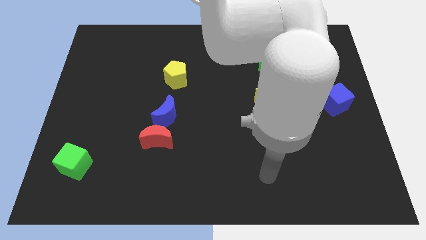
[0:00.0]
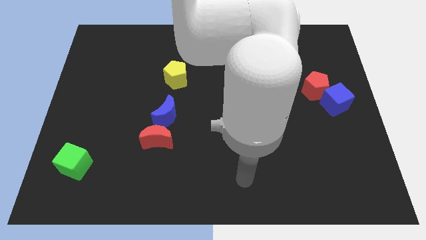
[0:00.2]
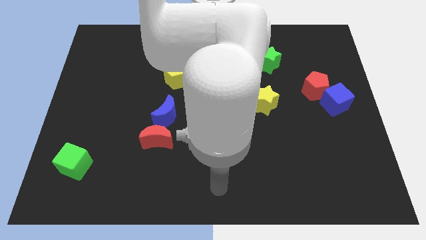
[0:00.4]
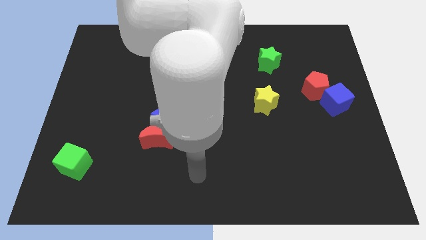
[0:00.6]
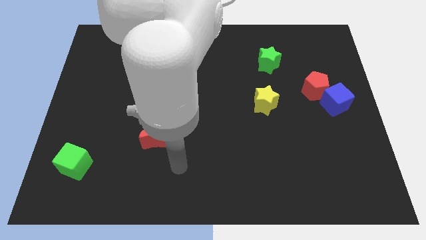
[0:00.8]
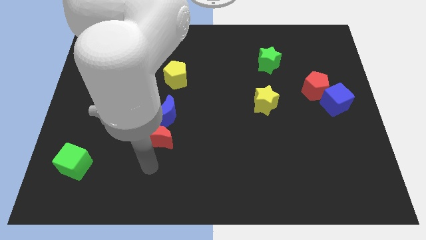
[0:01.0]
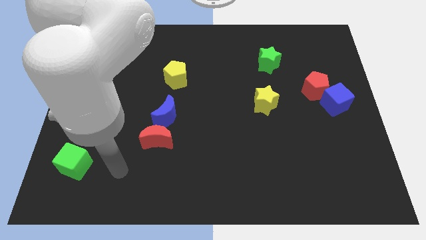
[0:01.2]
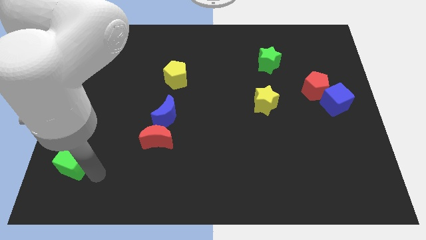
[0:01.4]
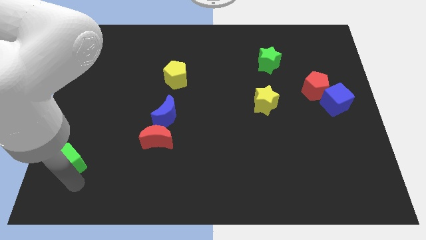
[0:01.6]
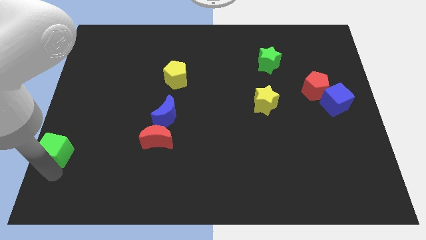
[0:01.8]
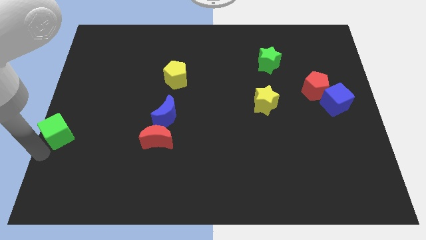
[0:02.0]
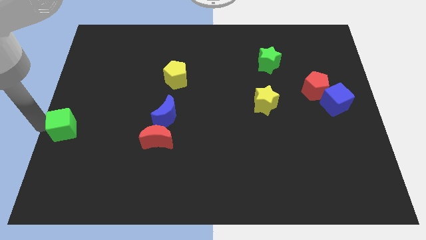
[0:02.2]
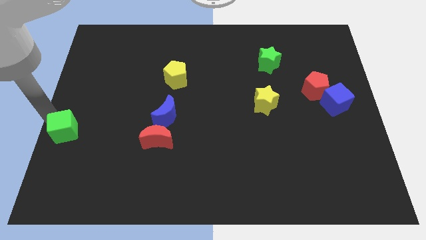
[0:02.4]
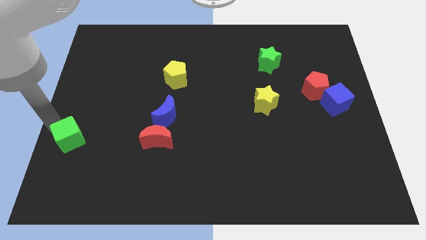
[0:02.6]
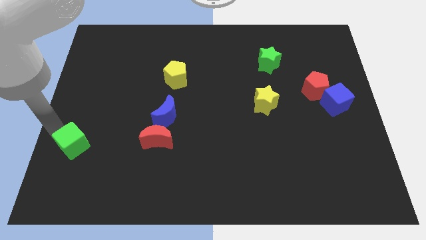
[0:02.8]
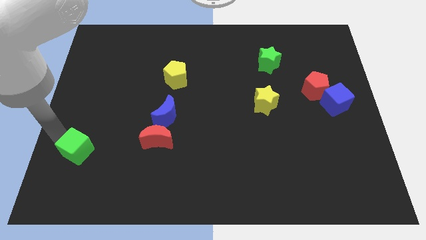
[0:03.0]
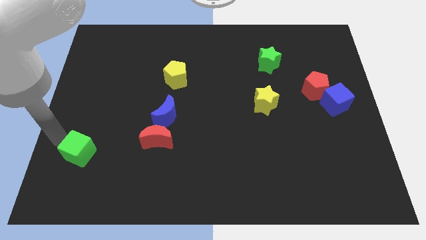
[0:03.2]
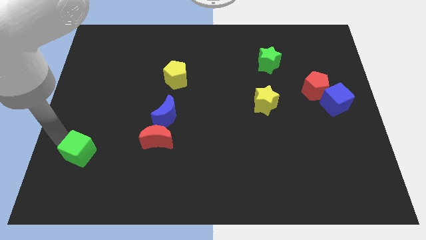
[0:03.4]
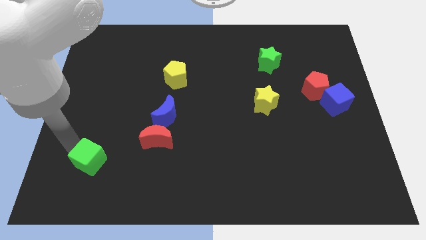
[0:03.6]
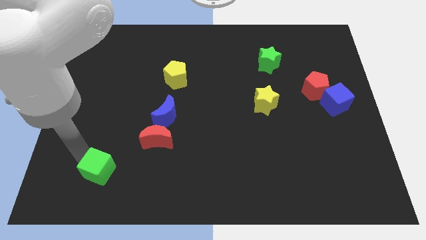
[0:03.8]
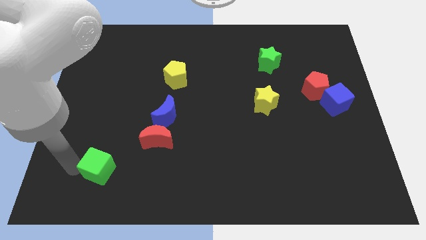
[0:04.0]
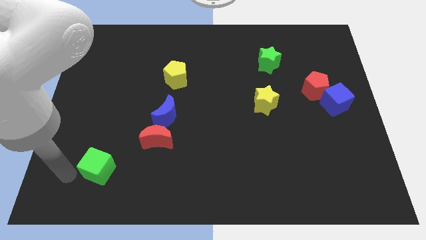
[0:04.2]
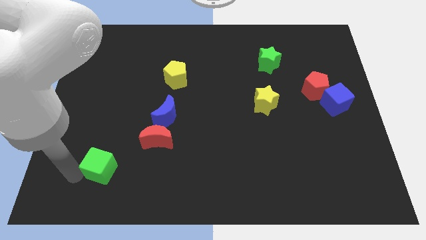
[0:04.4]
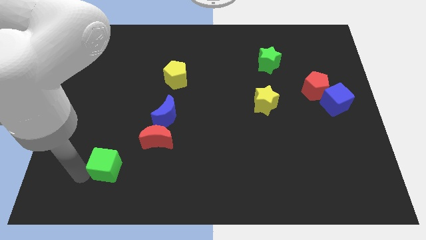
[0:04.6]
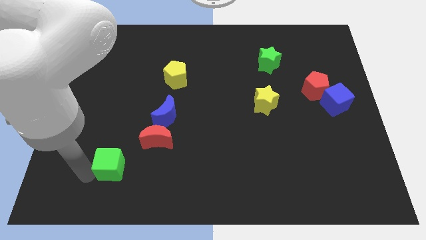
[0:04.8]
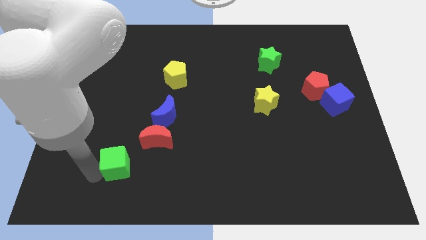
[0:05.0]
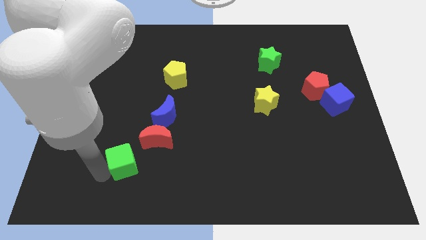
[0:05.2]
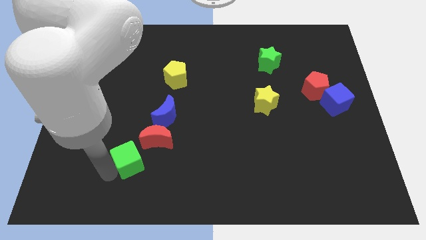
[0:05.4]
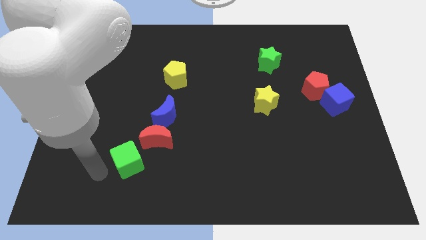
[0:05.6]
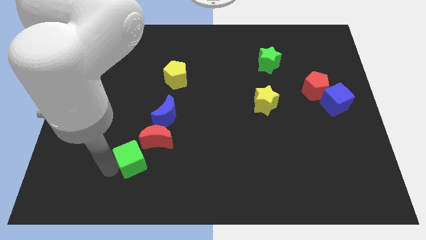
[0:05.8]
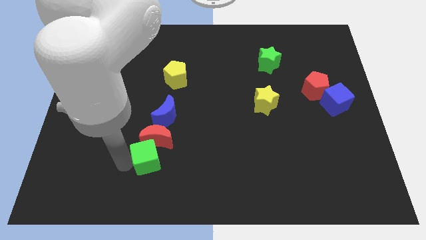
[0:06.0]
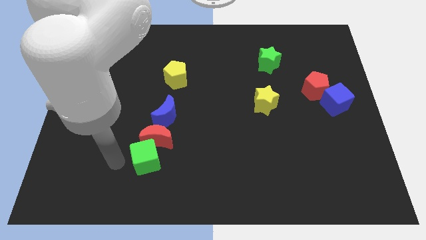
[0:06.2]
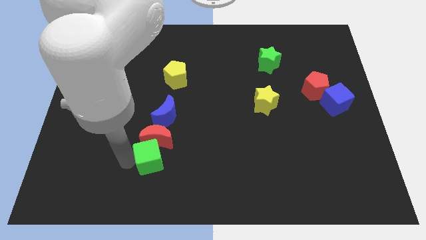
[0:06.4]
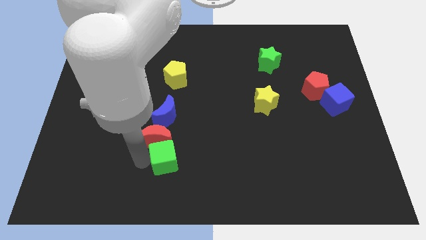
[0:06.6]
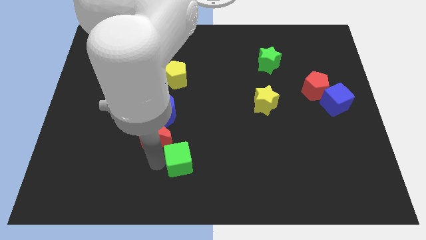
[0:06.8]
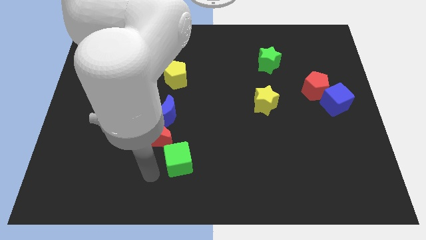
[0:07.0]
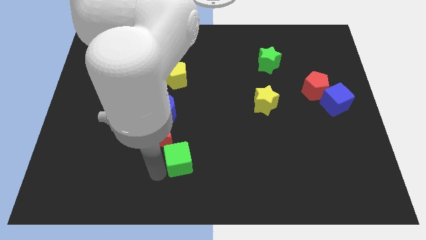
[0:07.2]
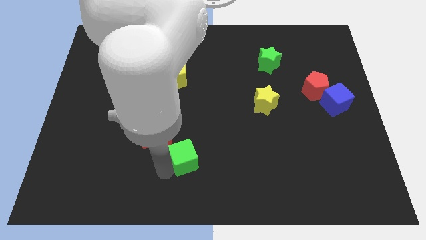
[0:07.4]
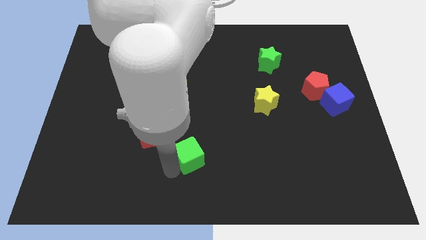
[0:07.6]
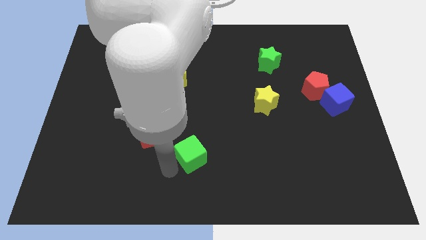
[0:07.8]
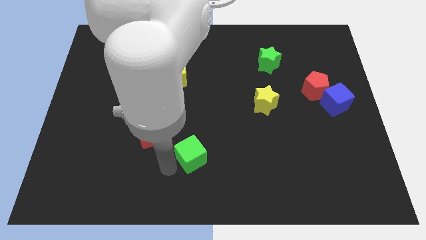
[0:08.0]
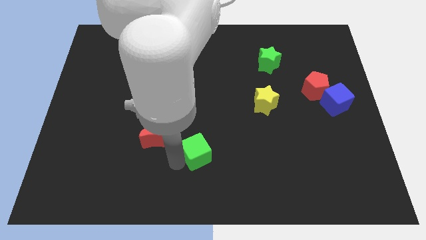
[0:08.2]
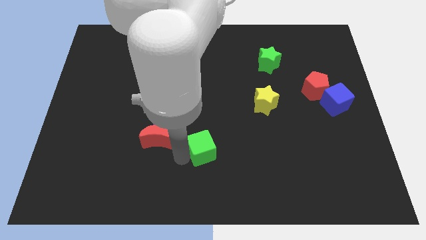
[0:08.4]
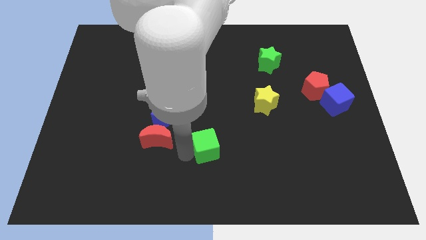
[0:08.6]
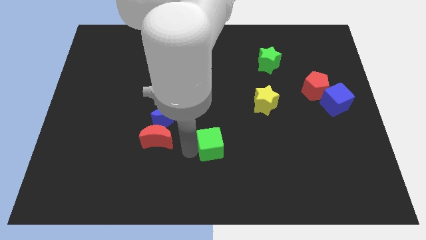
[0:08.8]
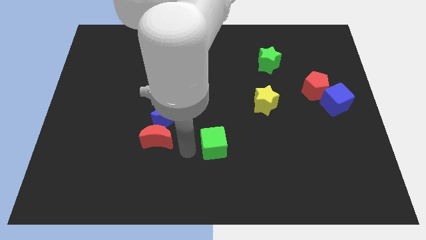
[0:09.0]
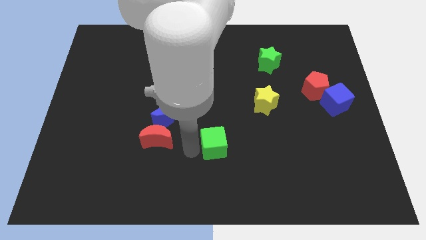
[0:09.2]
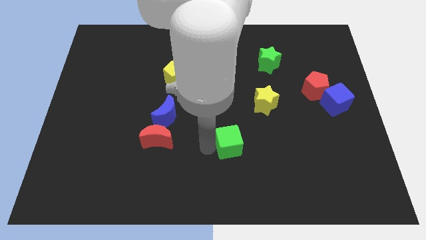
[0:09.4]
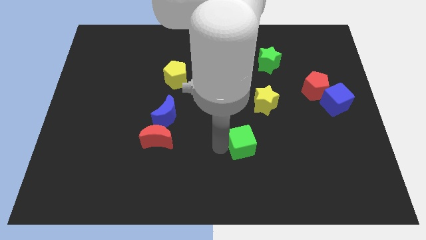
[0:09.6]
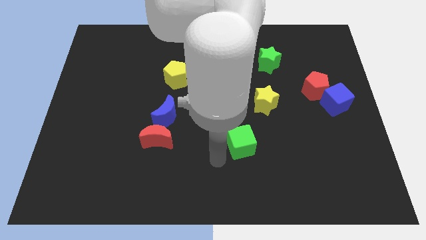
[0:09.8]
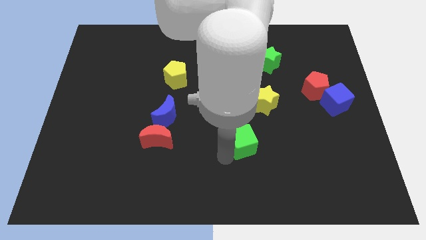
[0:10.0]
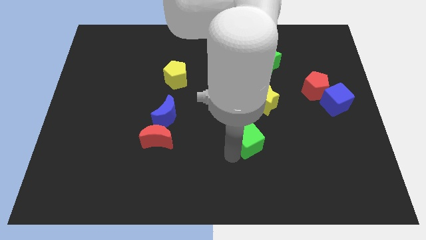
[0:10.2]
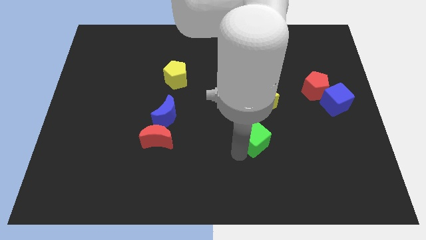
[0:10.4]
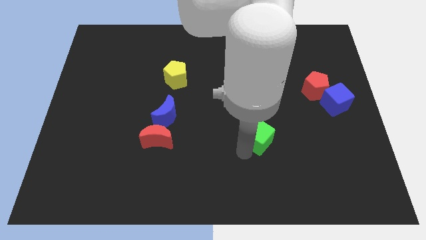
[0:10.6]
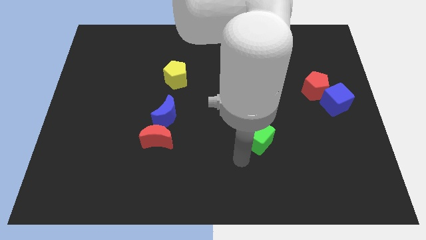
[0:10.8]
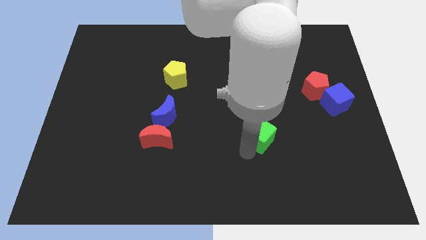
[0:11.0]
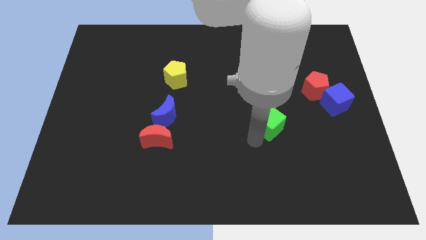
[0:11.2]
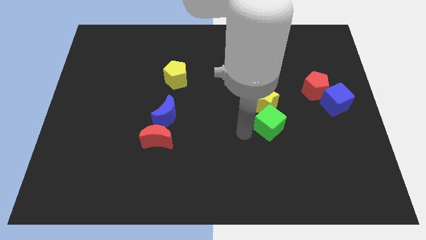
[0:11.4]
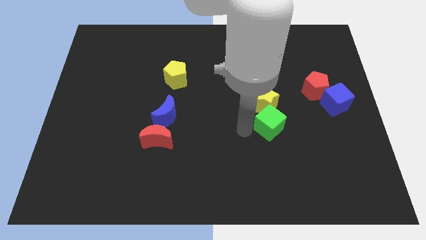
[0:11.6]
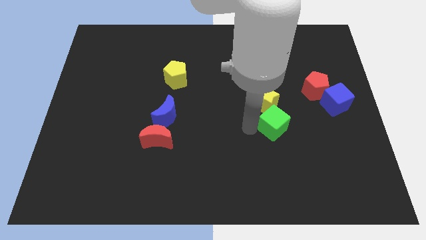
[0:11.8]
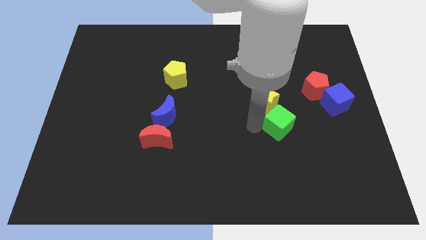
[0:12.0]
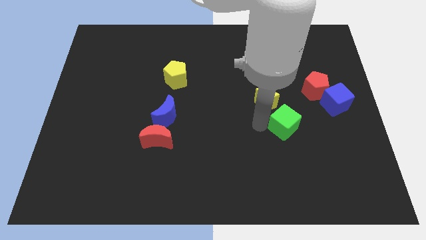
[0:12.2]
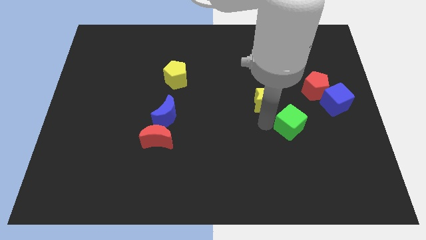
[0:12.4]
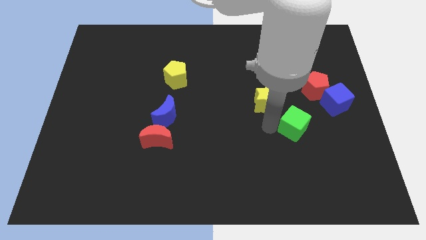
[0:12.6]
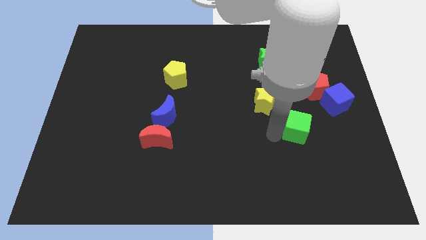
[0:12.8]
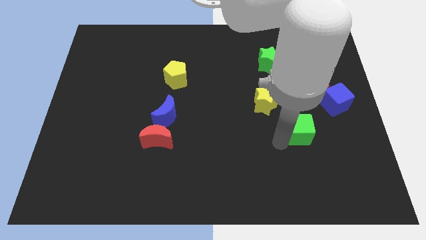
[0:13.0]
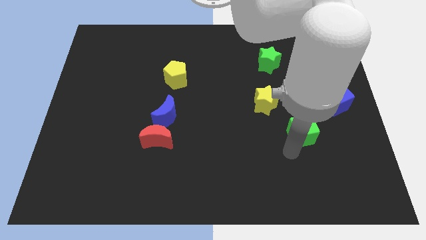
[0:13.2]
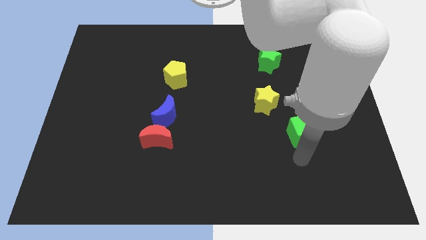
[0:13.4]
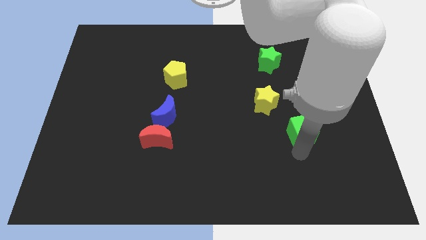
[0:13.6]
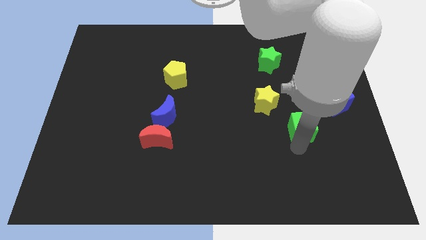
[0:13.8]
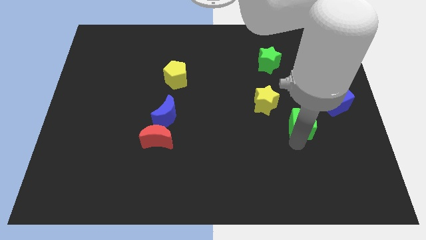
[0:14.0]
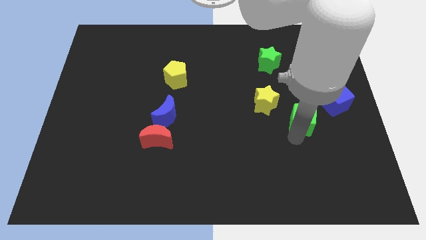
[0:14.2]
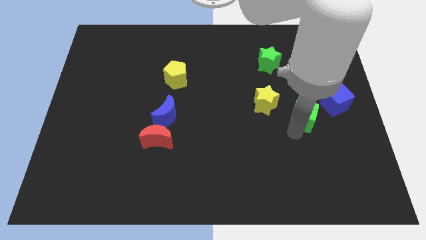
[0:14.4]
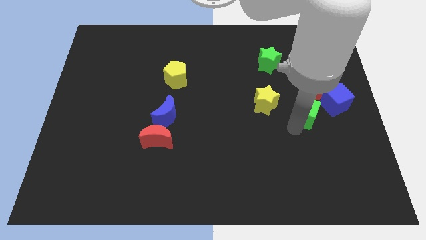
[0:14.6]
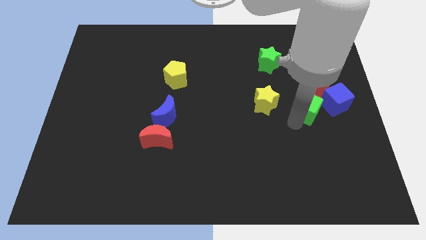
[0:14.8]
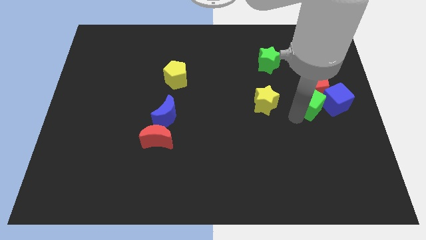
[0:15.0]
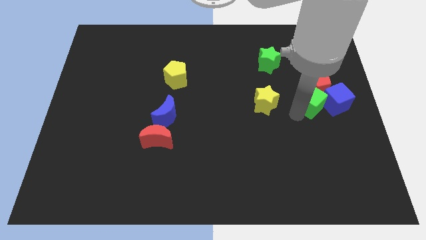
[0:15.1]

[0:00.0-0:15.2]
put the green cube close to the blue cube
